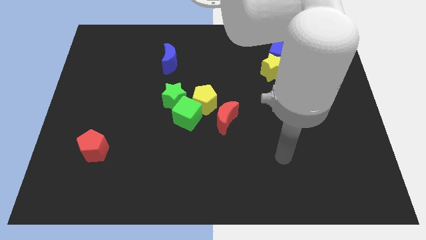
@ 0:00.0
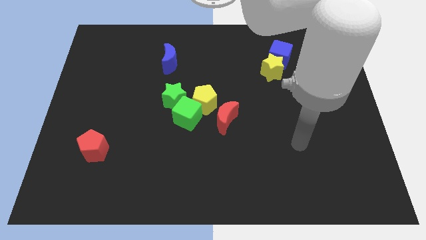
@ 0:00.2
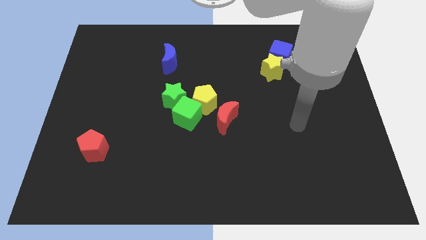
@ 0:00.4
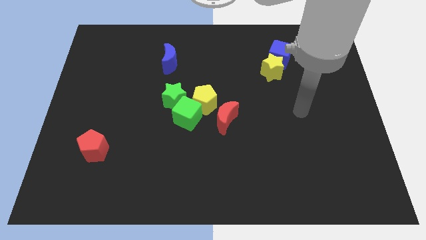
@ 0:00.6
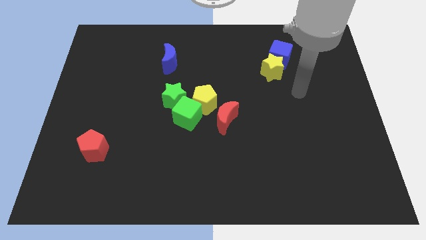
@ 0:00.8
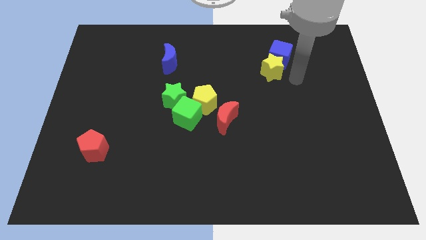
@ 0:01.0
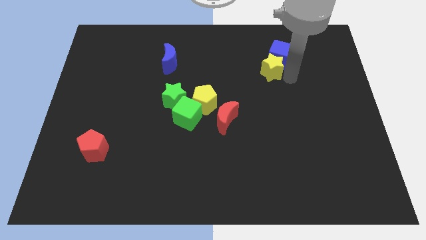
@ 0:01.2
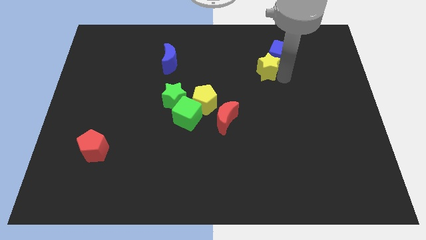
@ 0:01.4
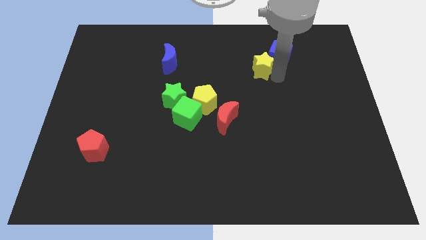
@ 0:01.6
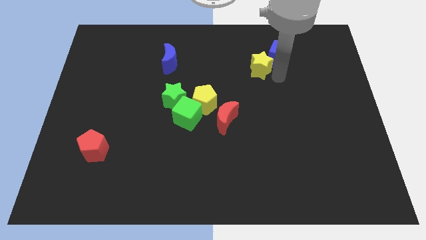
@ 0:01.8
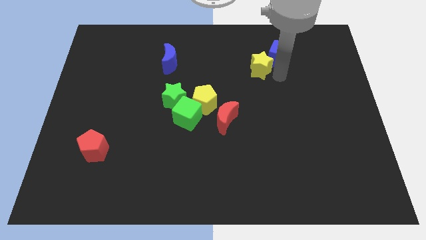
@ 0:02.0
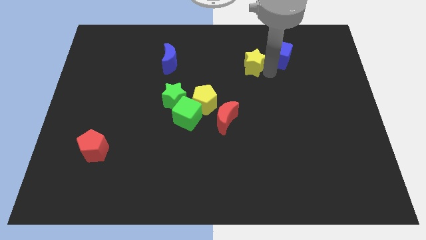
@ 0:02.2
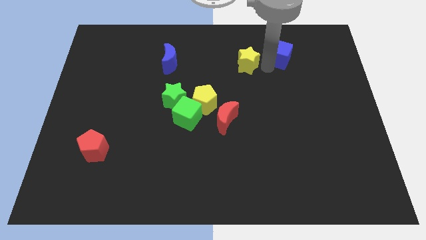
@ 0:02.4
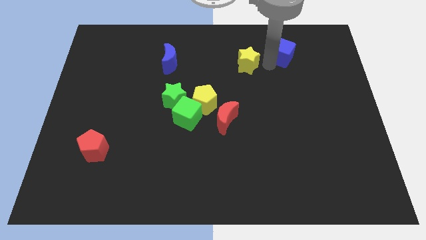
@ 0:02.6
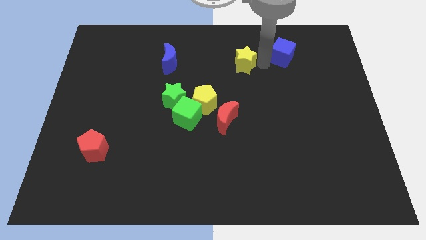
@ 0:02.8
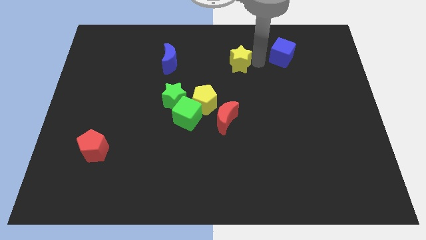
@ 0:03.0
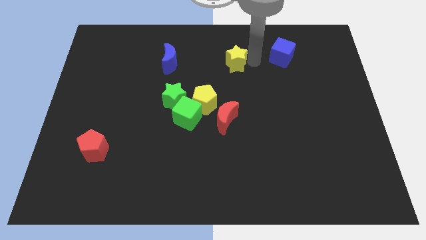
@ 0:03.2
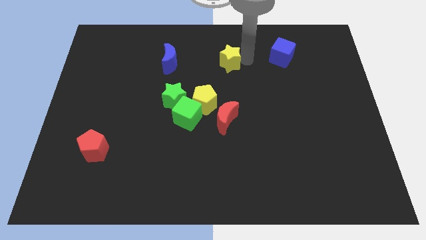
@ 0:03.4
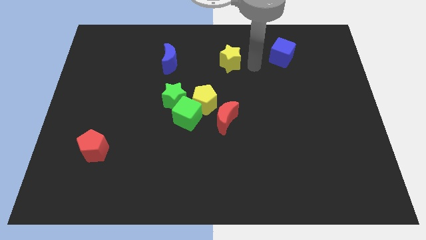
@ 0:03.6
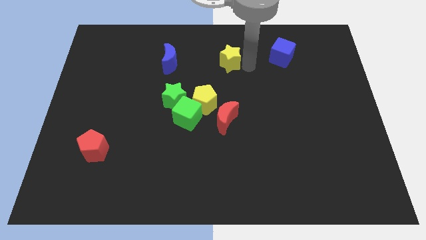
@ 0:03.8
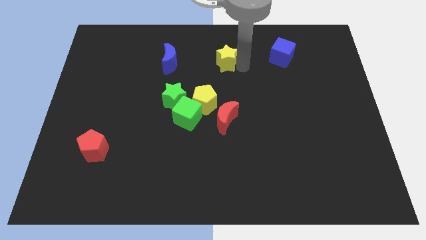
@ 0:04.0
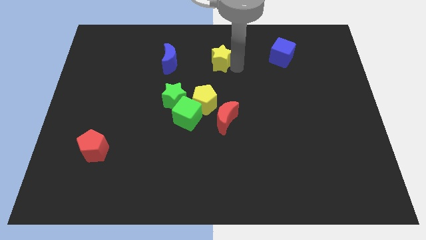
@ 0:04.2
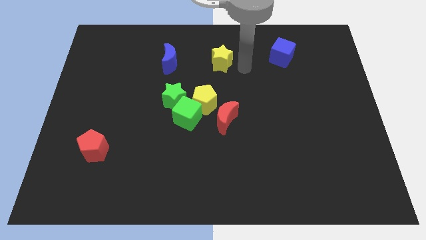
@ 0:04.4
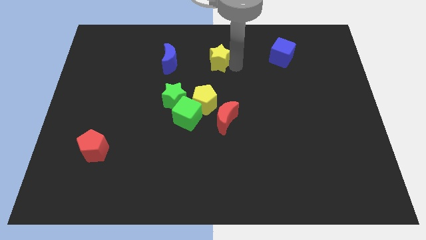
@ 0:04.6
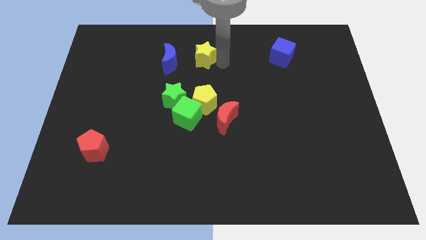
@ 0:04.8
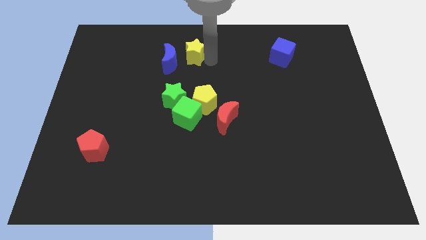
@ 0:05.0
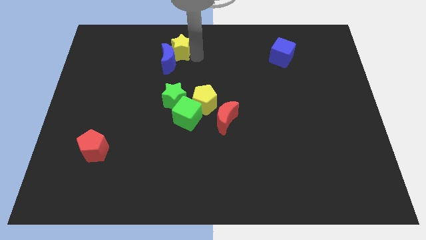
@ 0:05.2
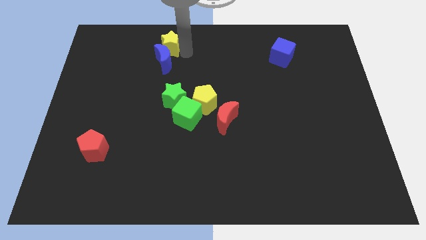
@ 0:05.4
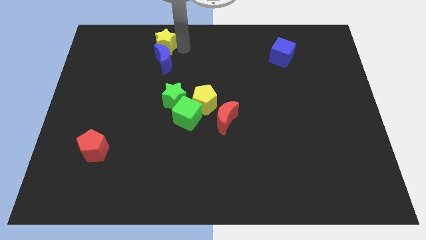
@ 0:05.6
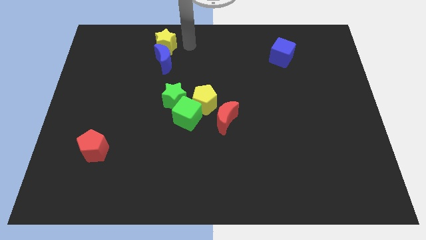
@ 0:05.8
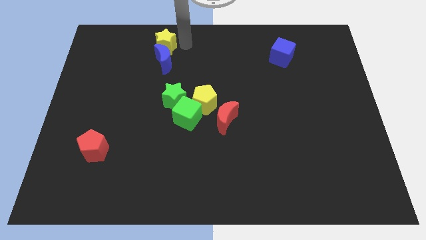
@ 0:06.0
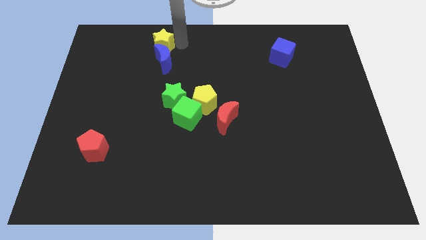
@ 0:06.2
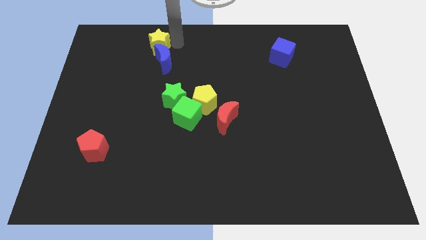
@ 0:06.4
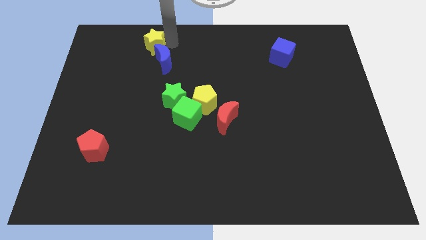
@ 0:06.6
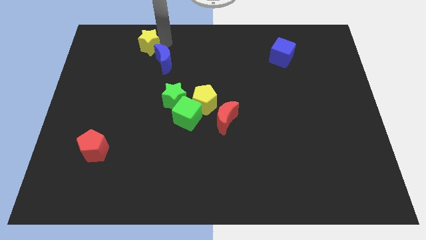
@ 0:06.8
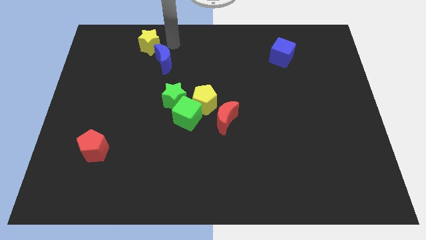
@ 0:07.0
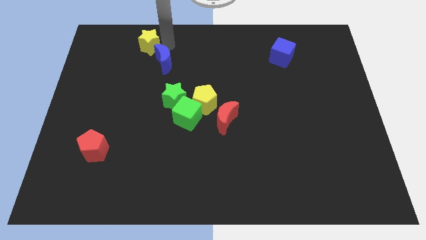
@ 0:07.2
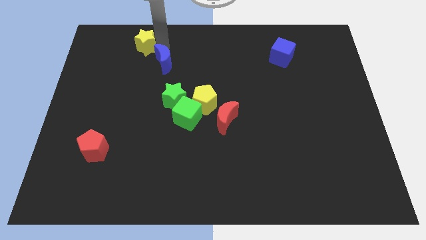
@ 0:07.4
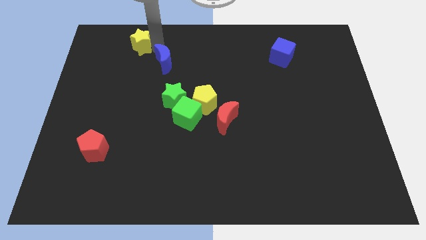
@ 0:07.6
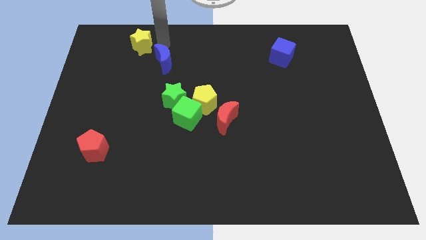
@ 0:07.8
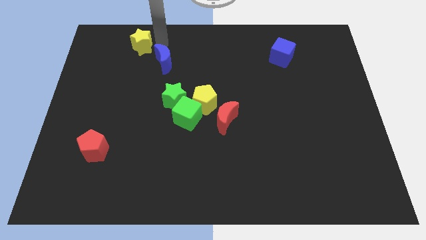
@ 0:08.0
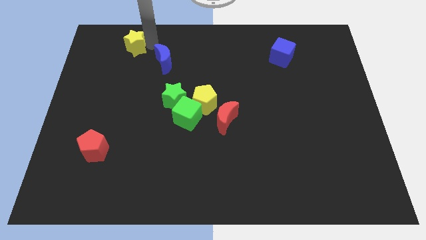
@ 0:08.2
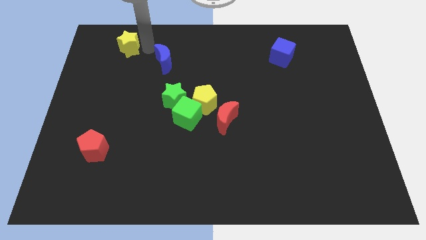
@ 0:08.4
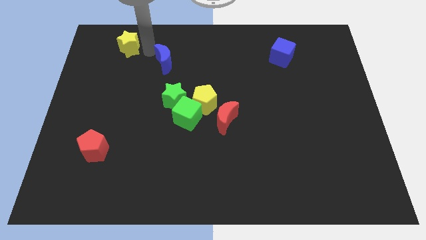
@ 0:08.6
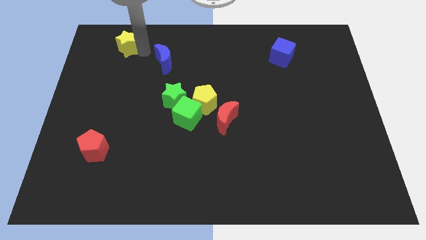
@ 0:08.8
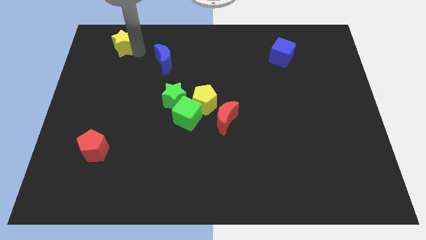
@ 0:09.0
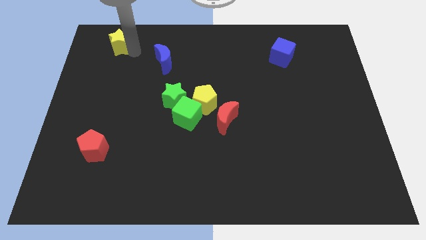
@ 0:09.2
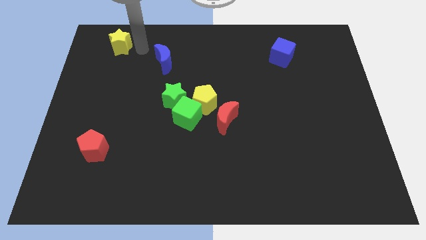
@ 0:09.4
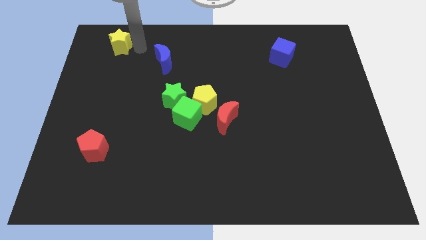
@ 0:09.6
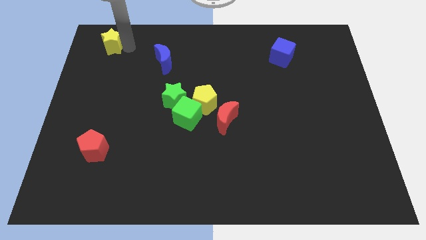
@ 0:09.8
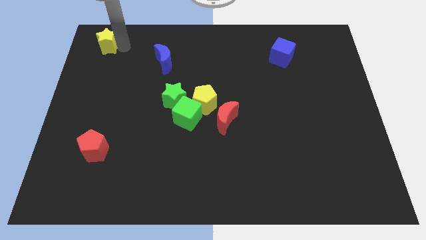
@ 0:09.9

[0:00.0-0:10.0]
put the yellow star to the upper left corner
